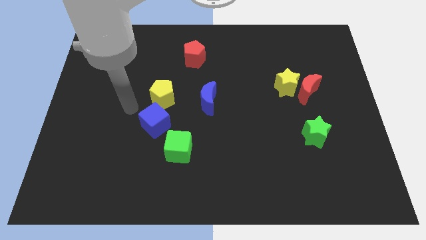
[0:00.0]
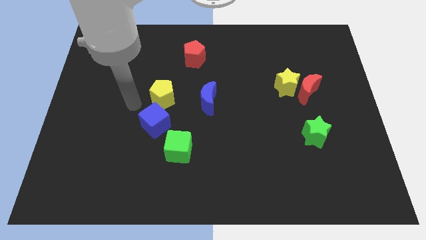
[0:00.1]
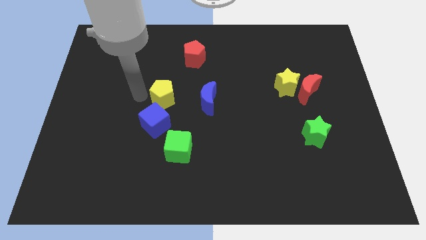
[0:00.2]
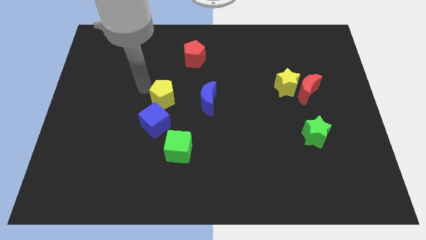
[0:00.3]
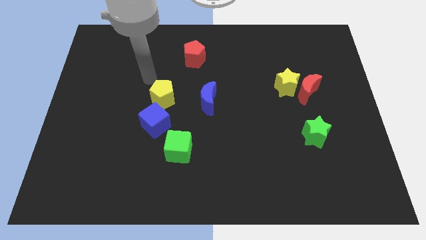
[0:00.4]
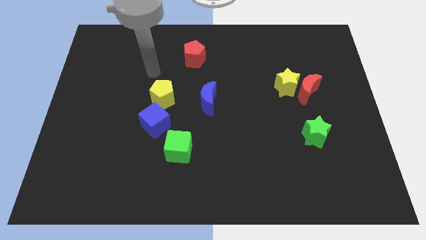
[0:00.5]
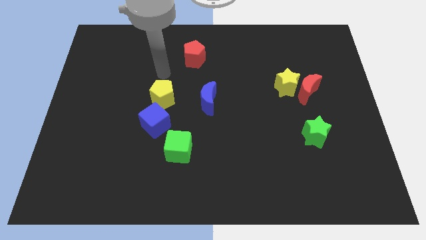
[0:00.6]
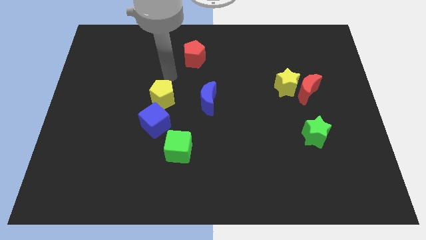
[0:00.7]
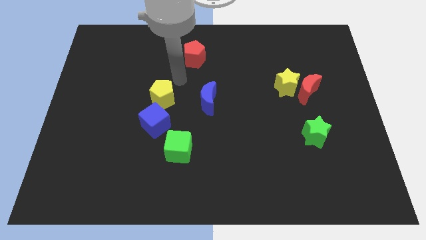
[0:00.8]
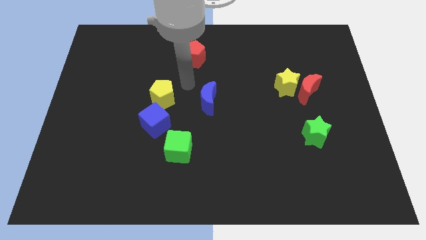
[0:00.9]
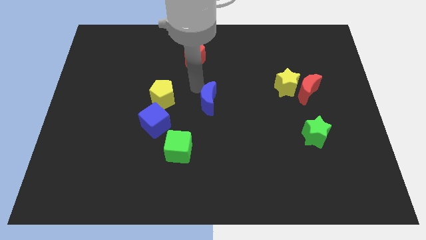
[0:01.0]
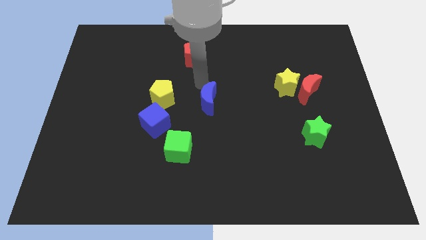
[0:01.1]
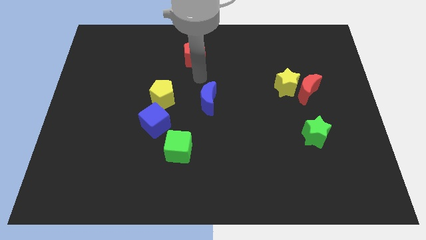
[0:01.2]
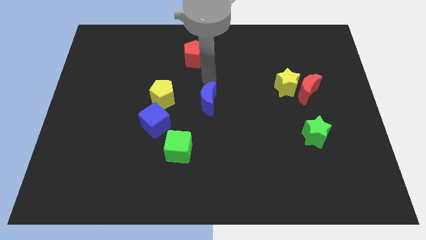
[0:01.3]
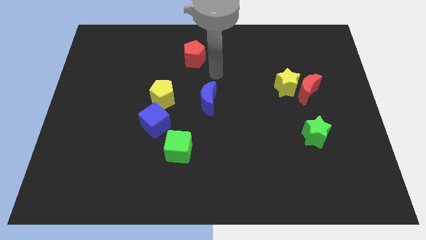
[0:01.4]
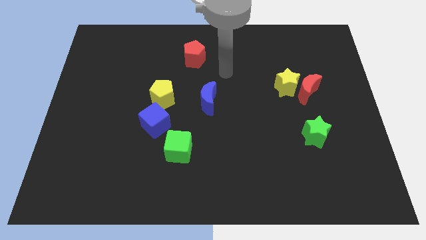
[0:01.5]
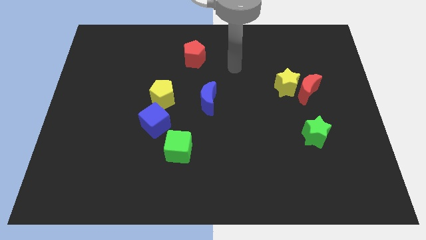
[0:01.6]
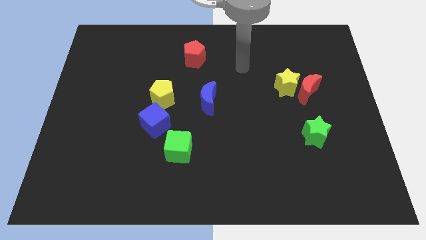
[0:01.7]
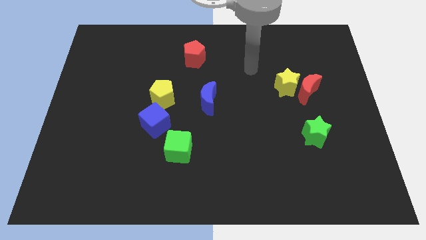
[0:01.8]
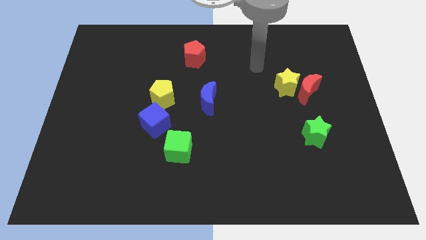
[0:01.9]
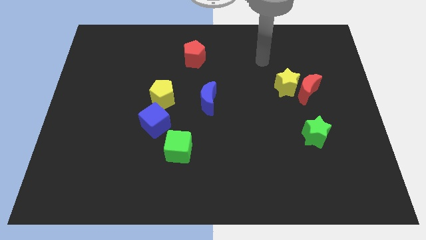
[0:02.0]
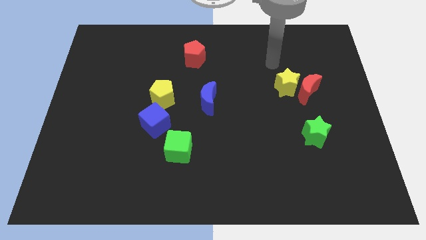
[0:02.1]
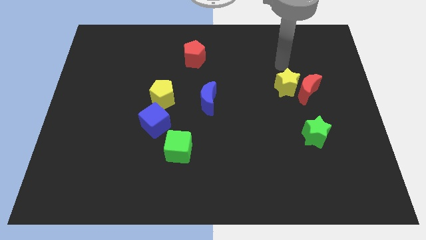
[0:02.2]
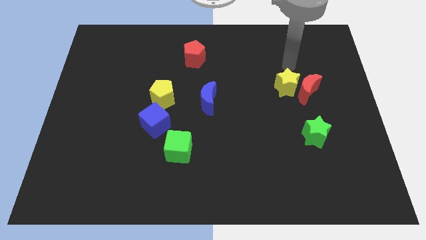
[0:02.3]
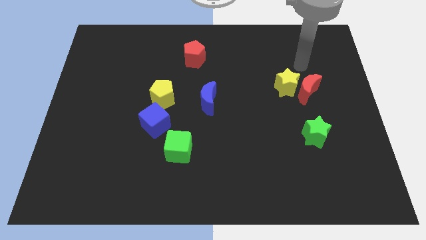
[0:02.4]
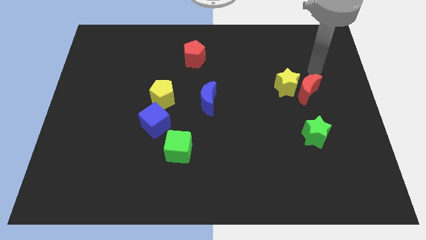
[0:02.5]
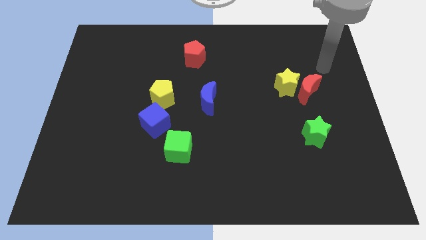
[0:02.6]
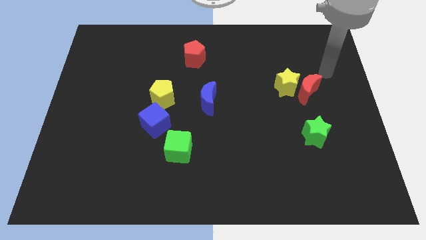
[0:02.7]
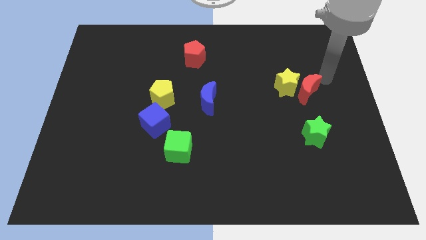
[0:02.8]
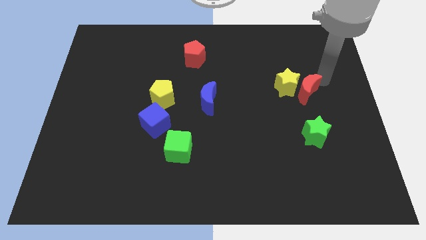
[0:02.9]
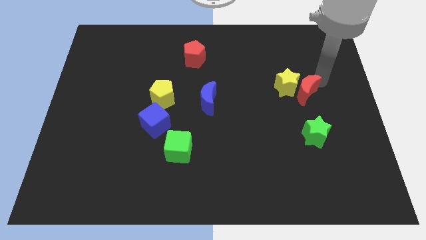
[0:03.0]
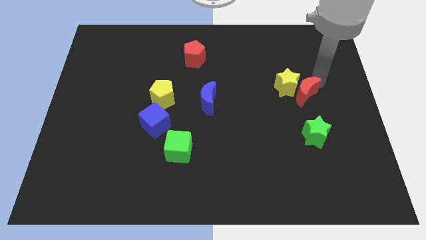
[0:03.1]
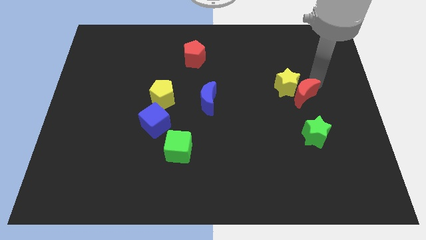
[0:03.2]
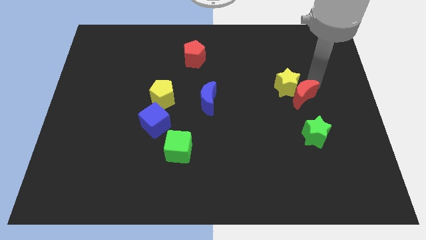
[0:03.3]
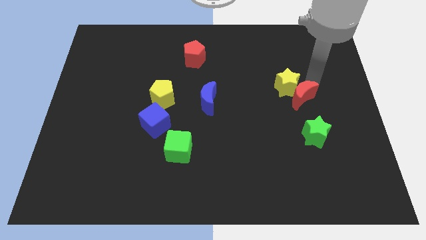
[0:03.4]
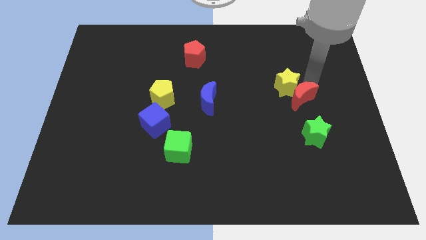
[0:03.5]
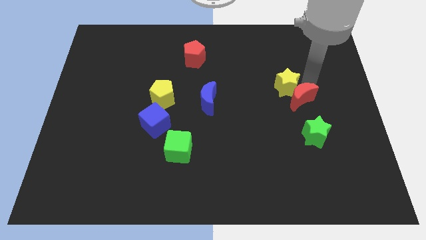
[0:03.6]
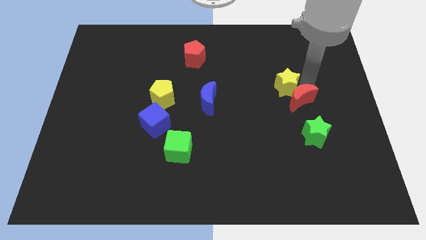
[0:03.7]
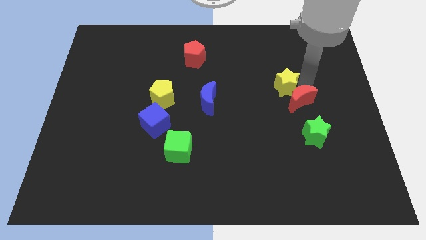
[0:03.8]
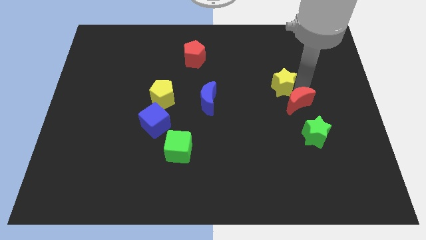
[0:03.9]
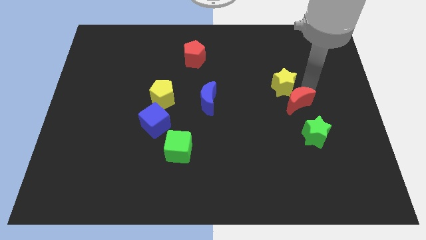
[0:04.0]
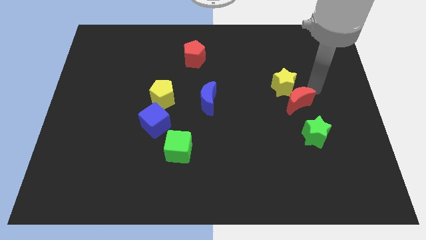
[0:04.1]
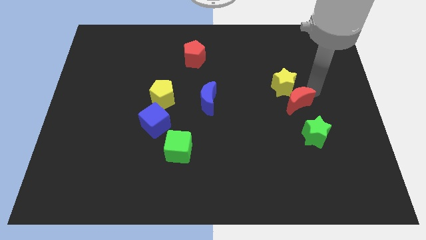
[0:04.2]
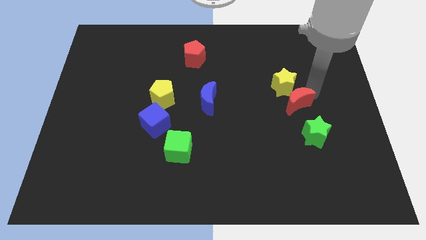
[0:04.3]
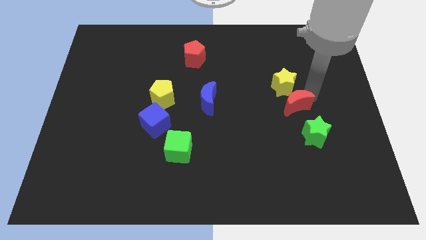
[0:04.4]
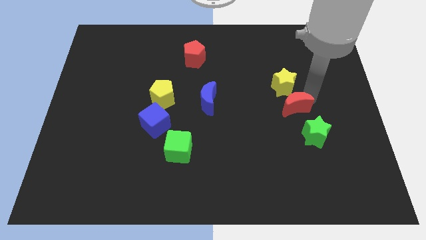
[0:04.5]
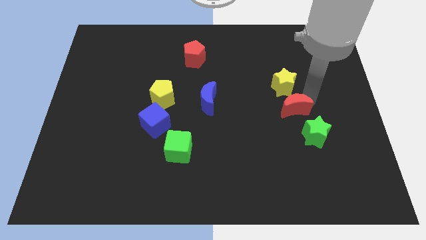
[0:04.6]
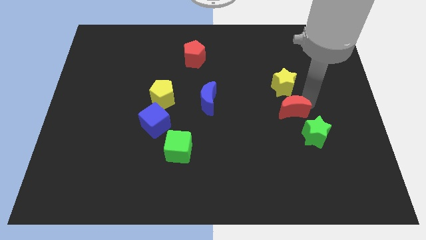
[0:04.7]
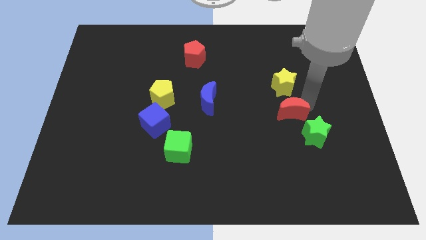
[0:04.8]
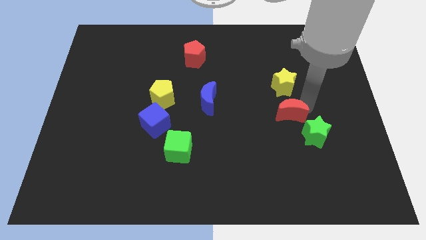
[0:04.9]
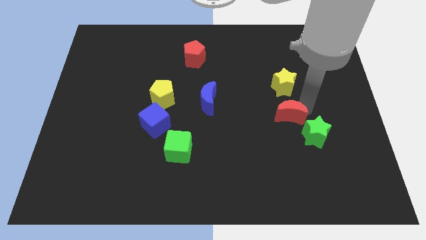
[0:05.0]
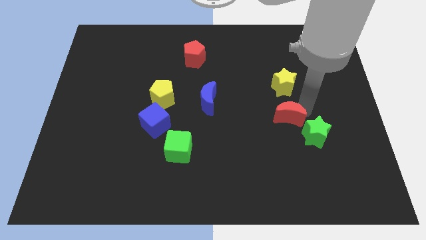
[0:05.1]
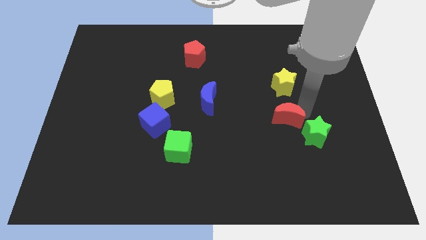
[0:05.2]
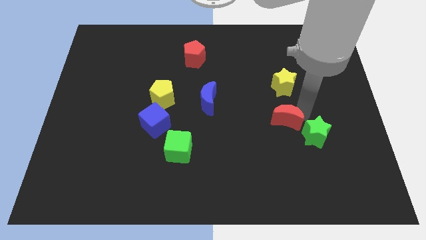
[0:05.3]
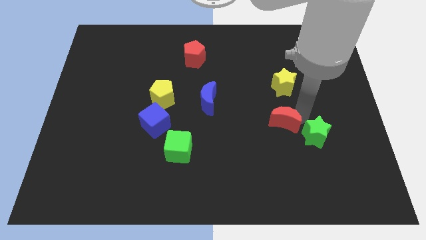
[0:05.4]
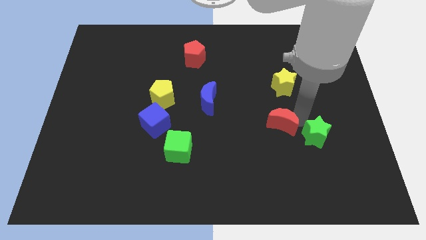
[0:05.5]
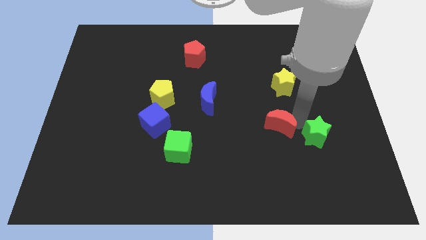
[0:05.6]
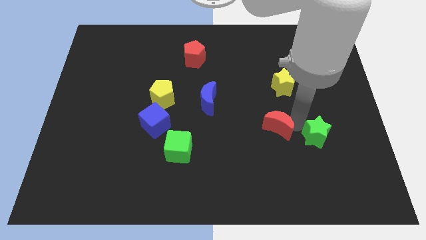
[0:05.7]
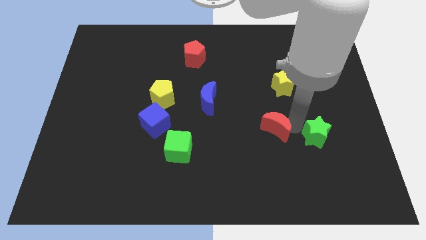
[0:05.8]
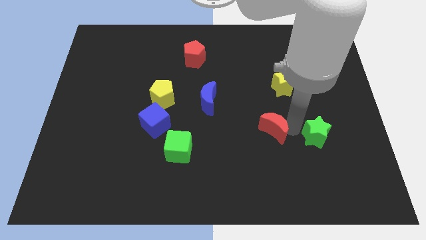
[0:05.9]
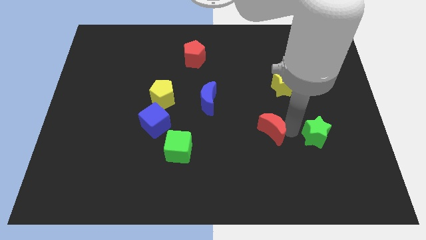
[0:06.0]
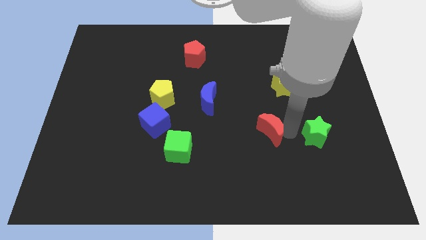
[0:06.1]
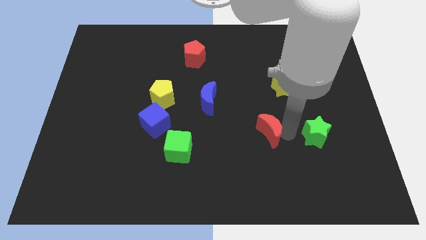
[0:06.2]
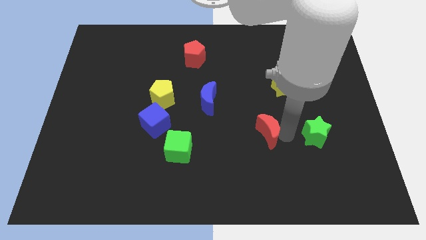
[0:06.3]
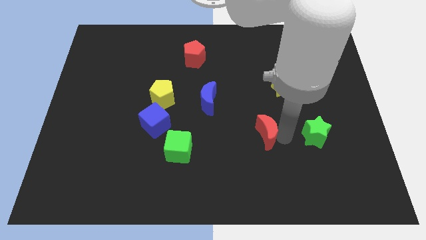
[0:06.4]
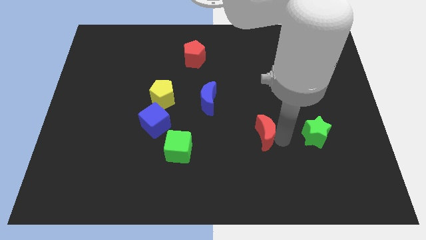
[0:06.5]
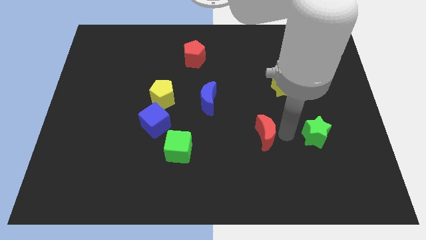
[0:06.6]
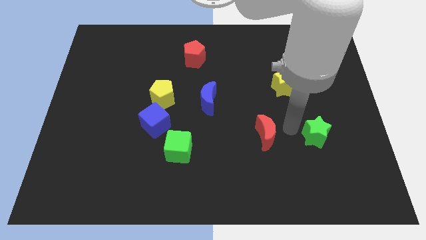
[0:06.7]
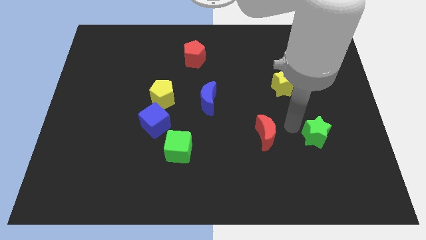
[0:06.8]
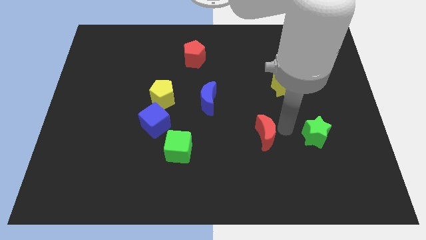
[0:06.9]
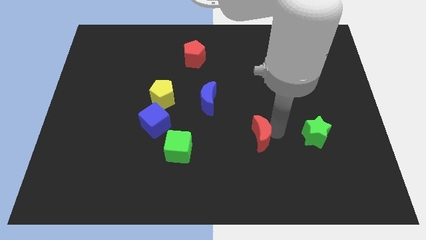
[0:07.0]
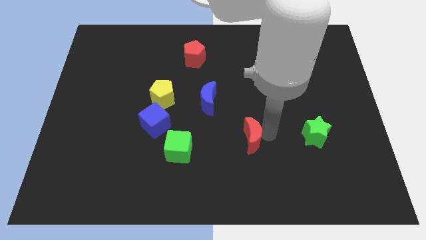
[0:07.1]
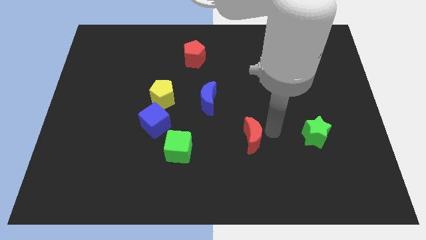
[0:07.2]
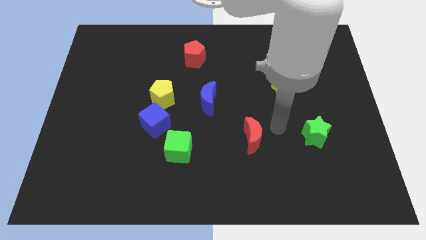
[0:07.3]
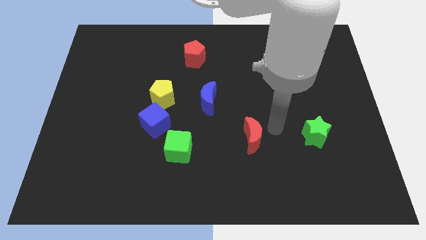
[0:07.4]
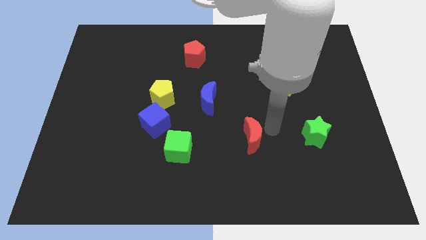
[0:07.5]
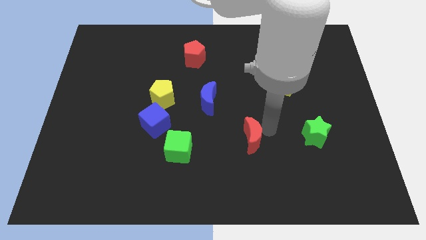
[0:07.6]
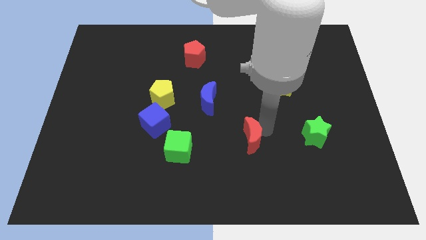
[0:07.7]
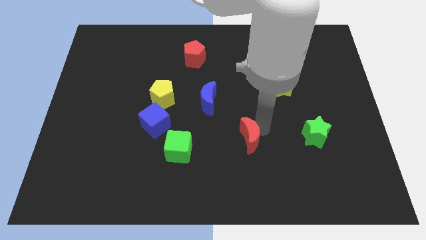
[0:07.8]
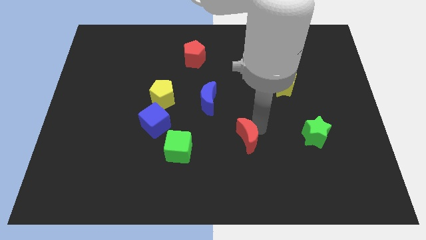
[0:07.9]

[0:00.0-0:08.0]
push the red moon to the right side of the green cube
